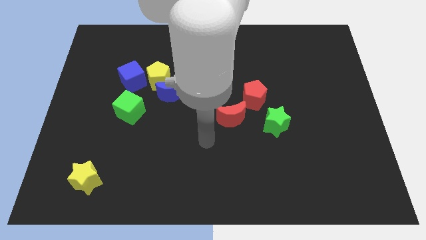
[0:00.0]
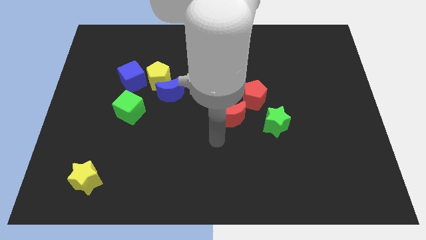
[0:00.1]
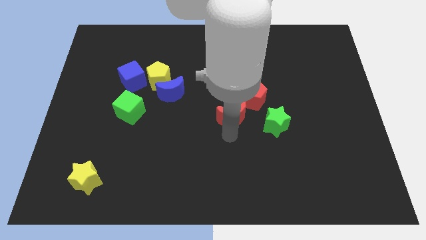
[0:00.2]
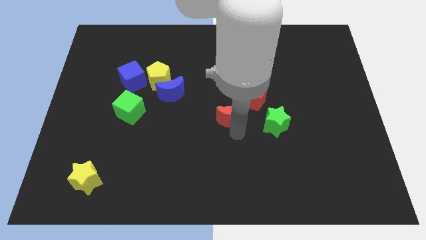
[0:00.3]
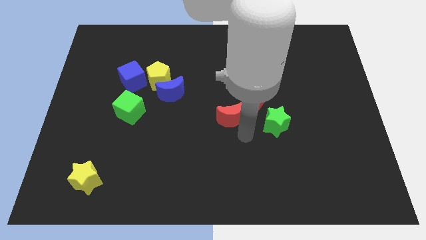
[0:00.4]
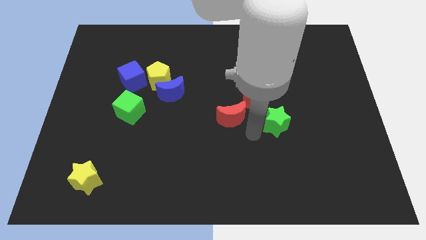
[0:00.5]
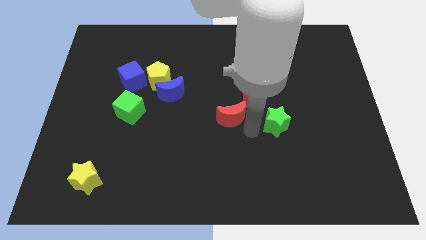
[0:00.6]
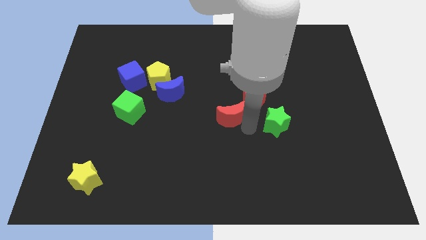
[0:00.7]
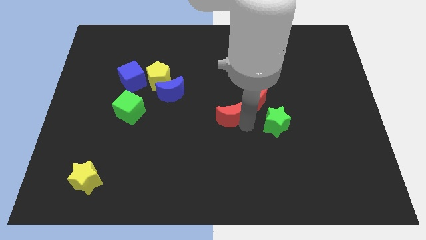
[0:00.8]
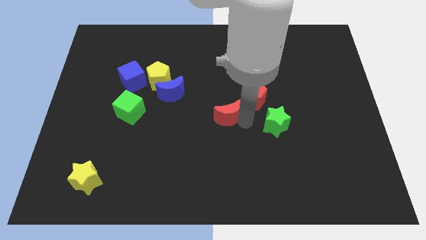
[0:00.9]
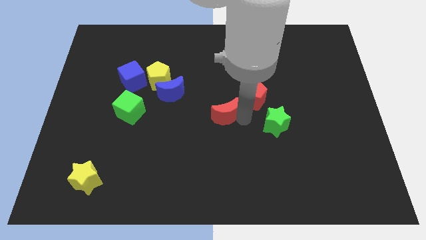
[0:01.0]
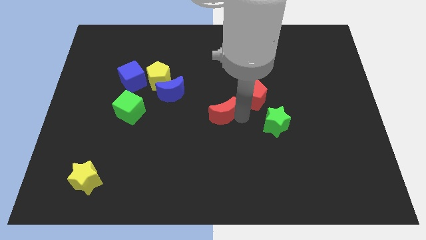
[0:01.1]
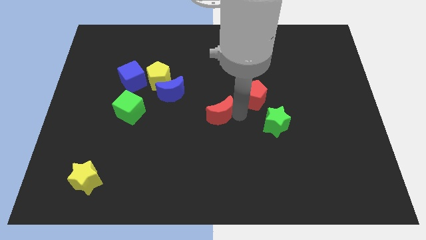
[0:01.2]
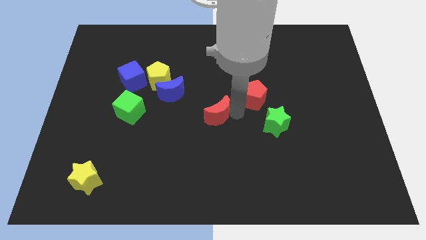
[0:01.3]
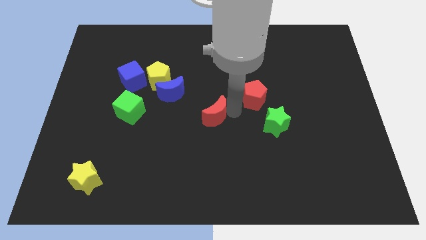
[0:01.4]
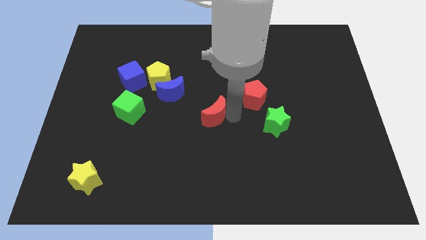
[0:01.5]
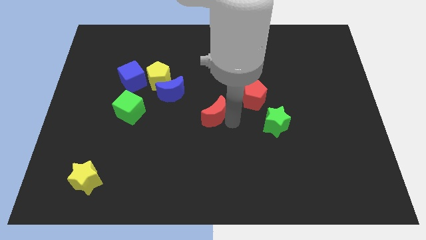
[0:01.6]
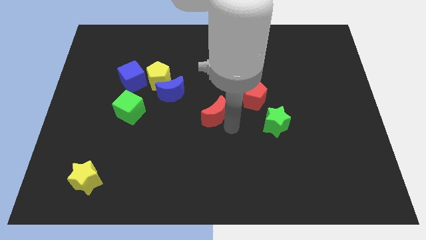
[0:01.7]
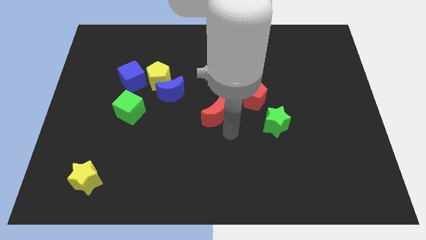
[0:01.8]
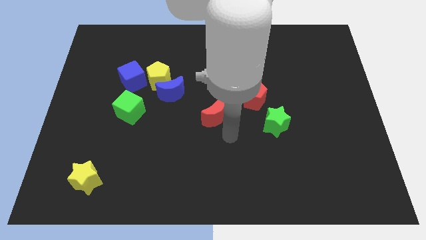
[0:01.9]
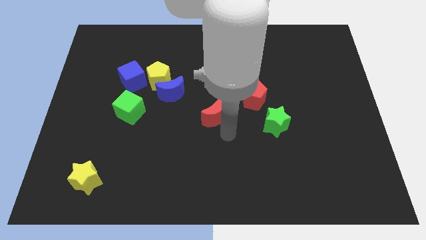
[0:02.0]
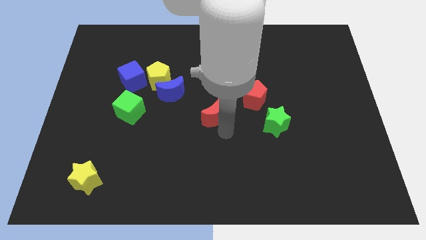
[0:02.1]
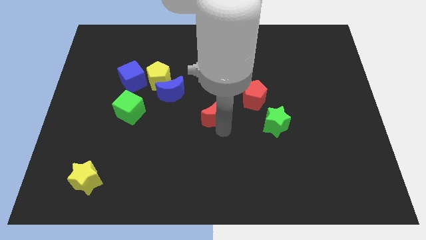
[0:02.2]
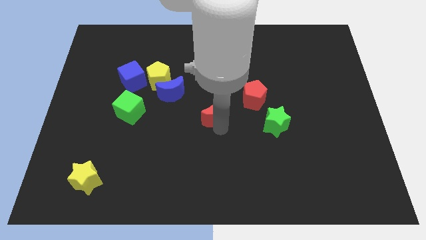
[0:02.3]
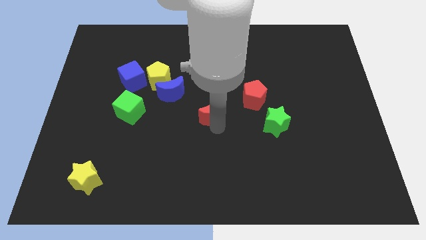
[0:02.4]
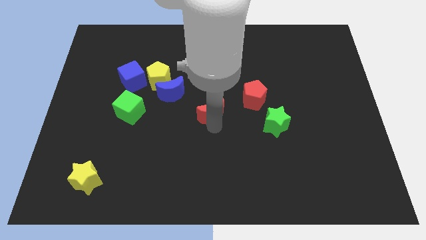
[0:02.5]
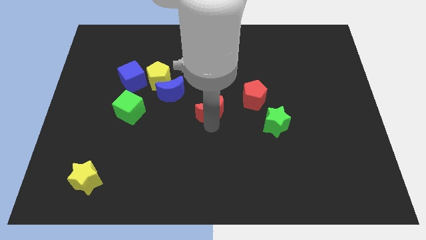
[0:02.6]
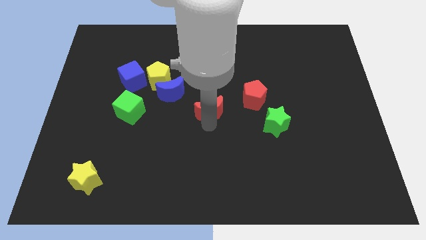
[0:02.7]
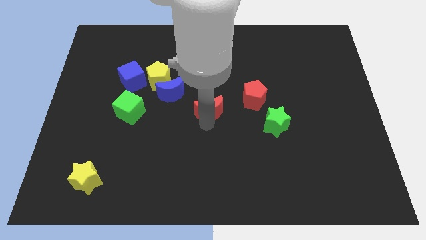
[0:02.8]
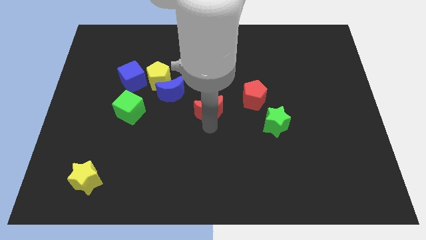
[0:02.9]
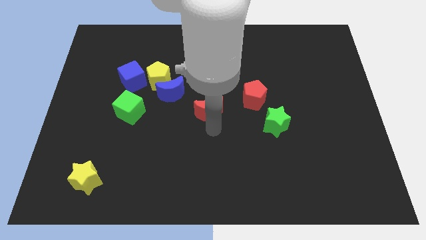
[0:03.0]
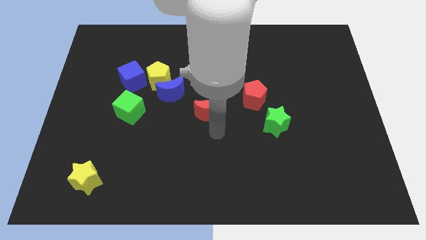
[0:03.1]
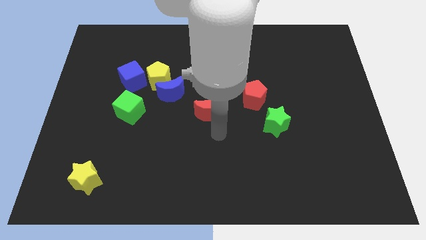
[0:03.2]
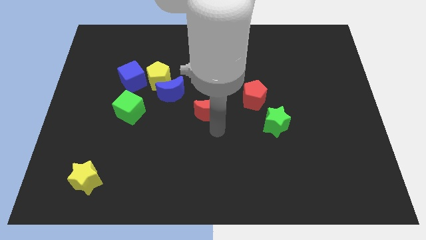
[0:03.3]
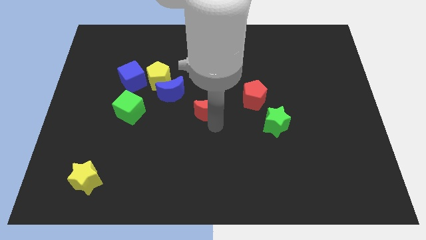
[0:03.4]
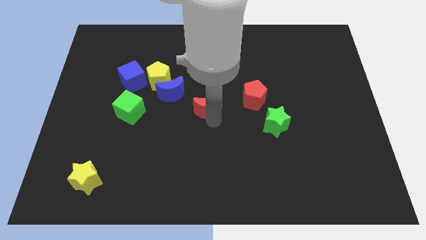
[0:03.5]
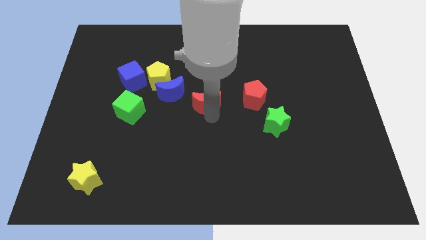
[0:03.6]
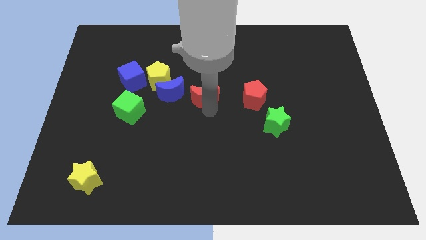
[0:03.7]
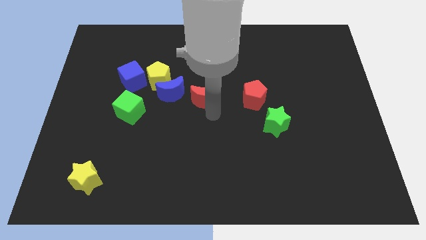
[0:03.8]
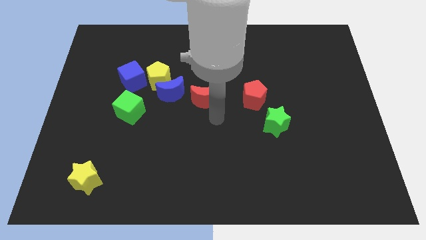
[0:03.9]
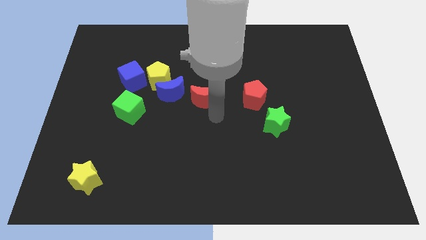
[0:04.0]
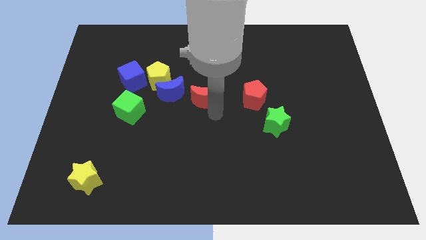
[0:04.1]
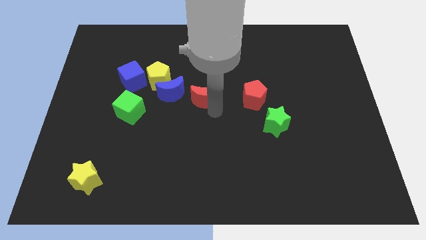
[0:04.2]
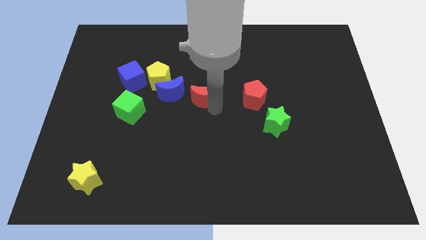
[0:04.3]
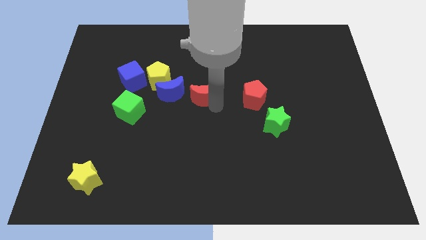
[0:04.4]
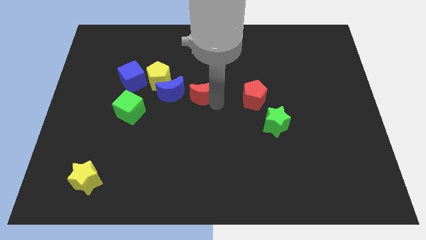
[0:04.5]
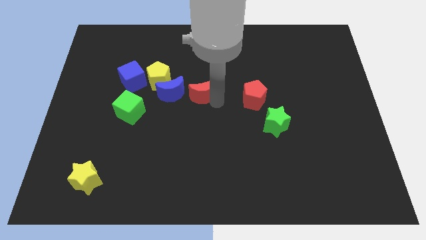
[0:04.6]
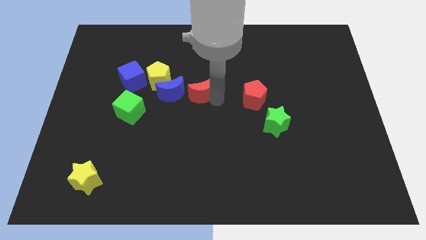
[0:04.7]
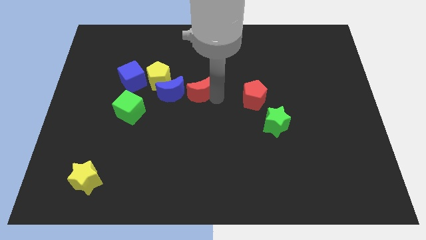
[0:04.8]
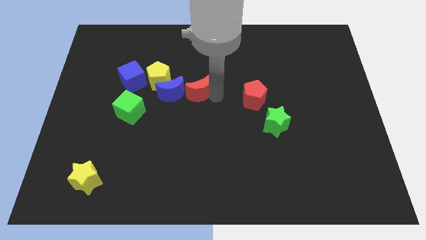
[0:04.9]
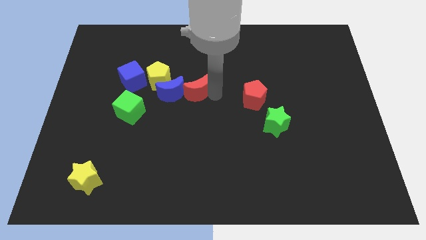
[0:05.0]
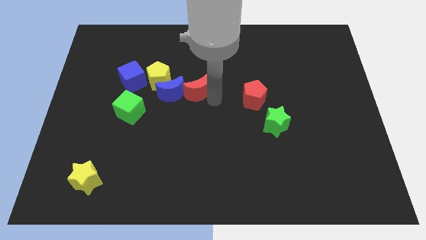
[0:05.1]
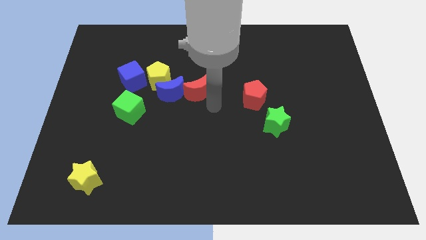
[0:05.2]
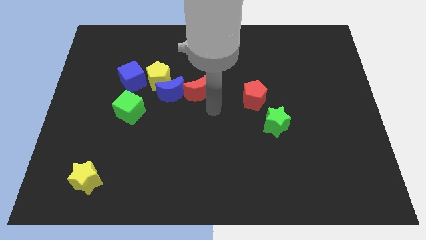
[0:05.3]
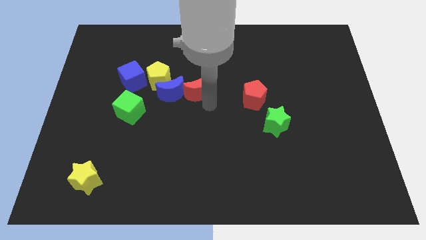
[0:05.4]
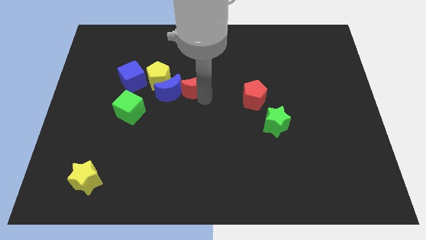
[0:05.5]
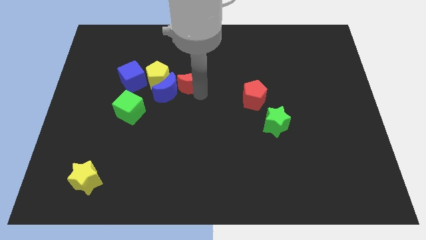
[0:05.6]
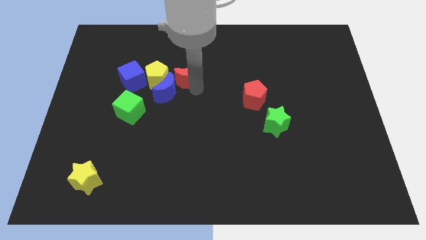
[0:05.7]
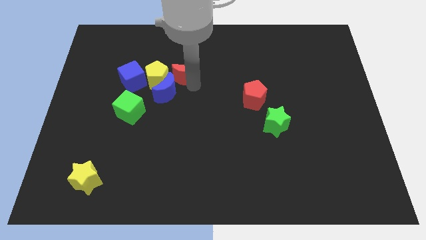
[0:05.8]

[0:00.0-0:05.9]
push the red moon above the blue moon

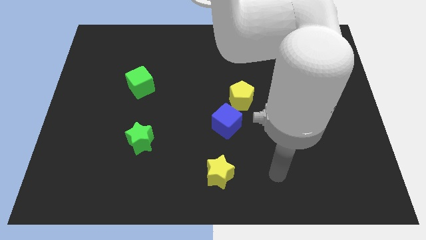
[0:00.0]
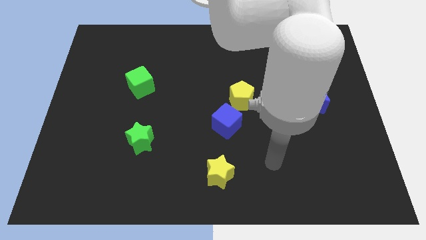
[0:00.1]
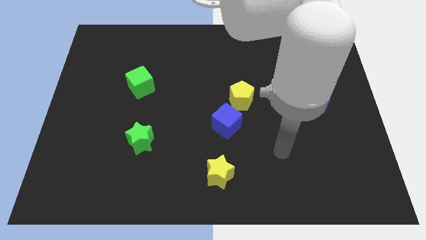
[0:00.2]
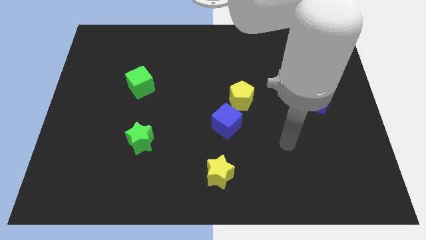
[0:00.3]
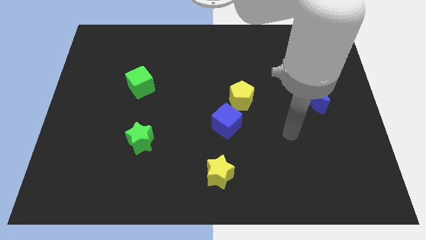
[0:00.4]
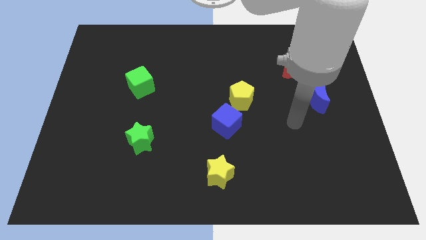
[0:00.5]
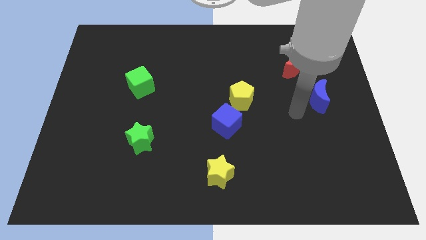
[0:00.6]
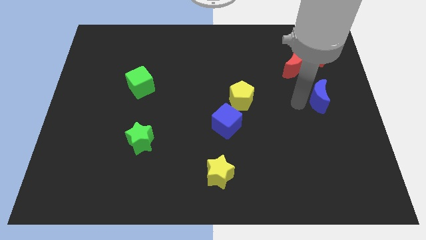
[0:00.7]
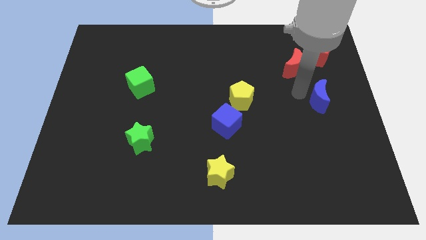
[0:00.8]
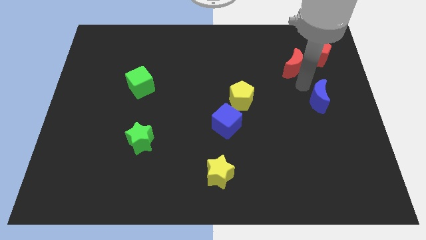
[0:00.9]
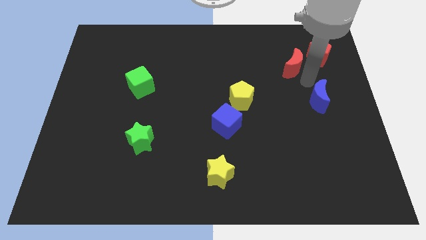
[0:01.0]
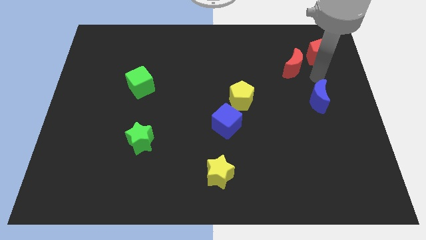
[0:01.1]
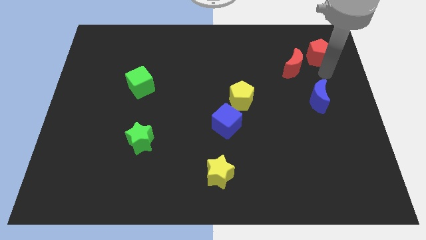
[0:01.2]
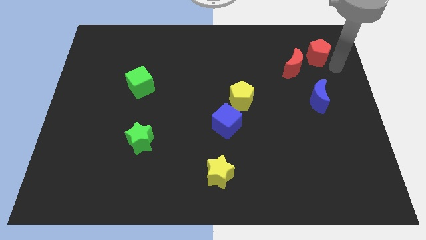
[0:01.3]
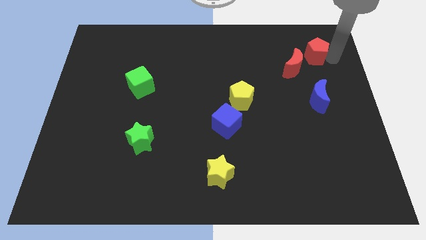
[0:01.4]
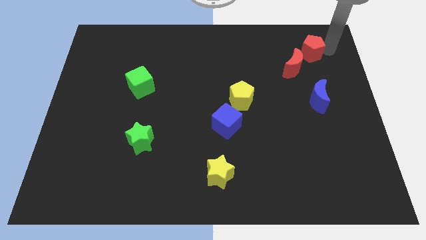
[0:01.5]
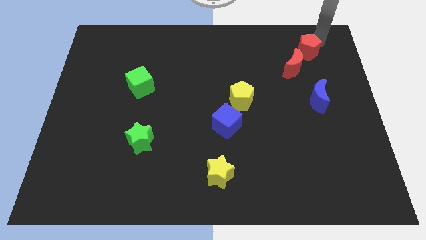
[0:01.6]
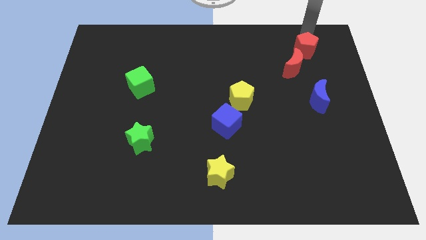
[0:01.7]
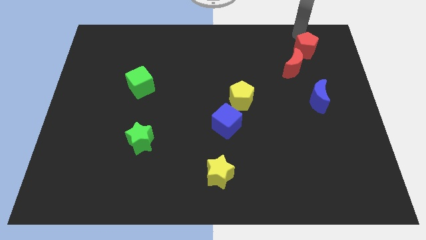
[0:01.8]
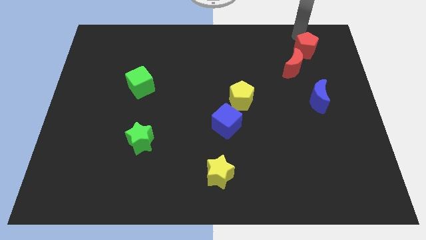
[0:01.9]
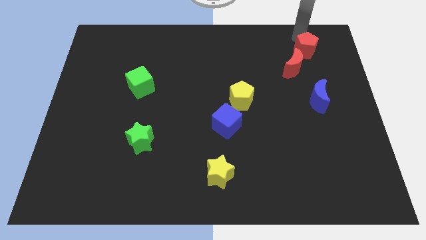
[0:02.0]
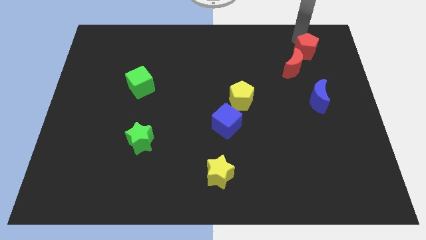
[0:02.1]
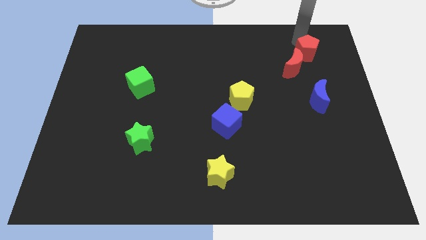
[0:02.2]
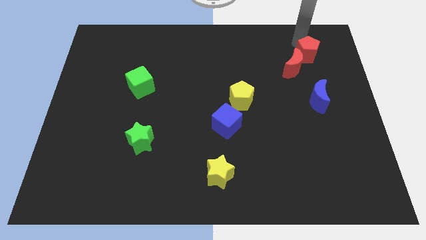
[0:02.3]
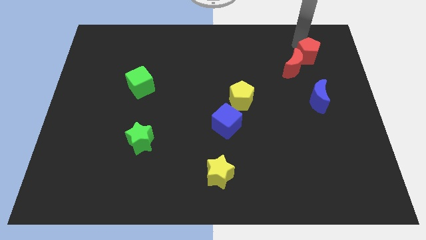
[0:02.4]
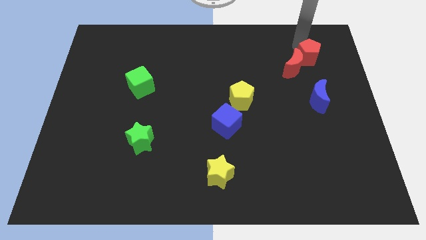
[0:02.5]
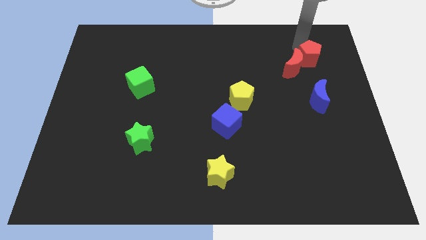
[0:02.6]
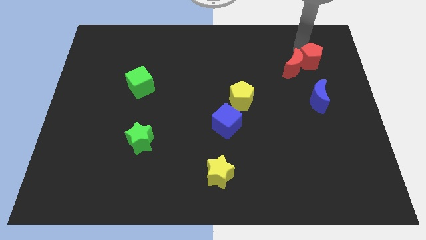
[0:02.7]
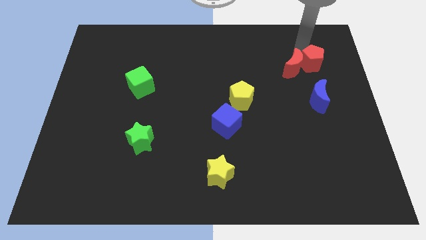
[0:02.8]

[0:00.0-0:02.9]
move the red pentagon to the bottom right side of the red moon
